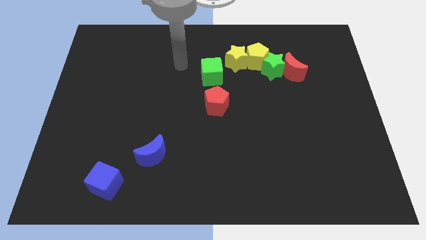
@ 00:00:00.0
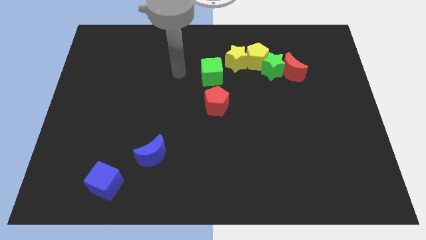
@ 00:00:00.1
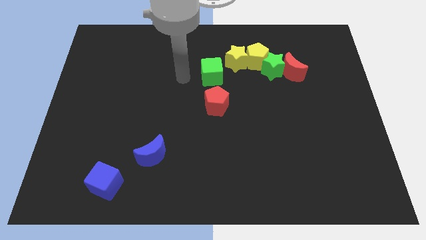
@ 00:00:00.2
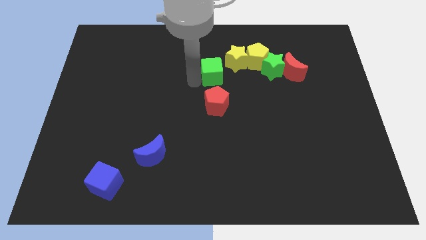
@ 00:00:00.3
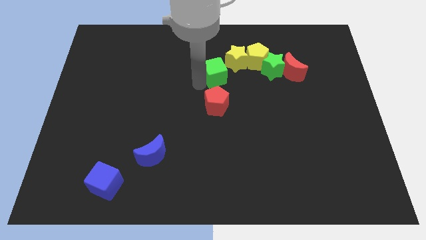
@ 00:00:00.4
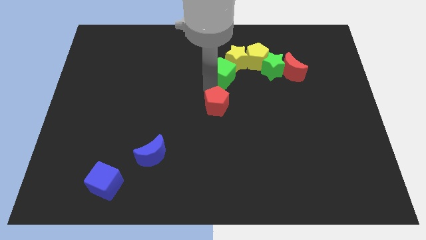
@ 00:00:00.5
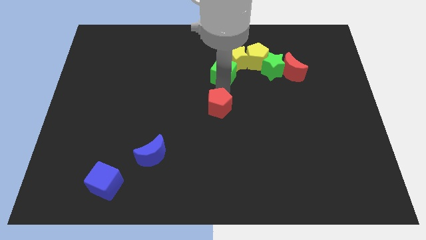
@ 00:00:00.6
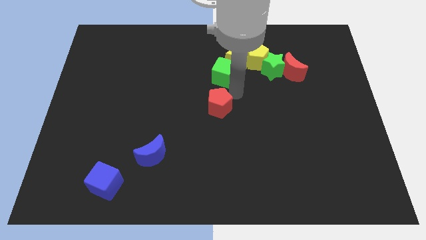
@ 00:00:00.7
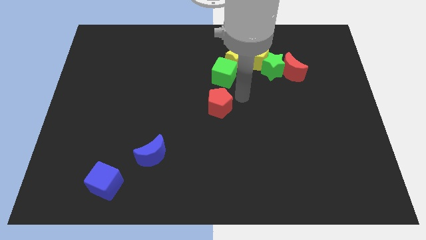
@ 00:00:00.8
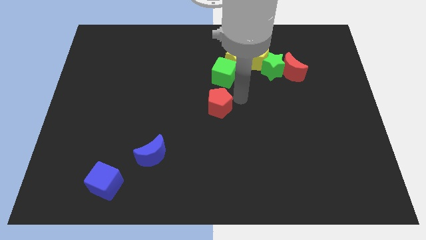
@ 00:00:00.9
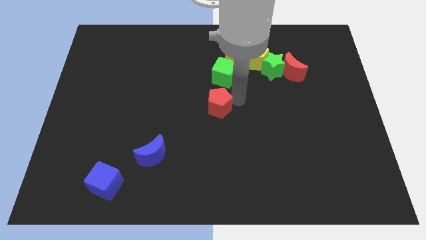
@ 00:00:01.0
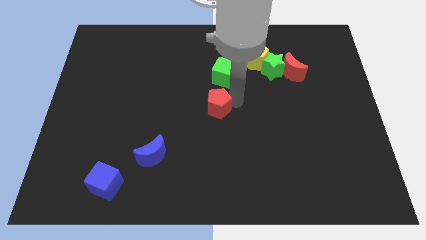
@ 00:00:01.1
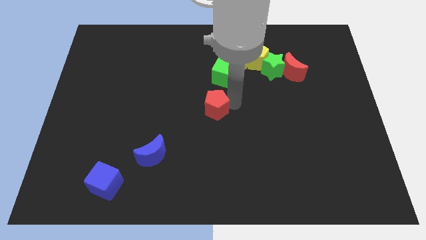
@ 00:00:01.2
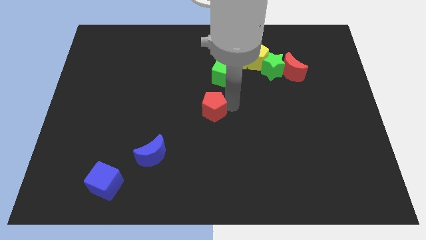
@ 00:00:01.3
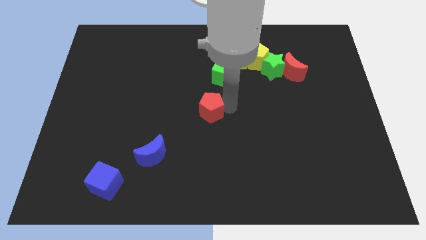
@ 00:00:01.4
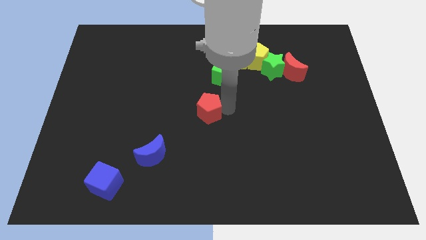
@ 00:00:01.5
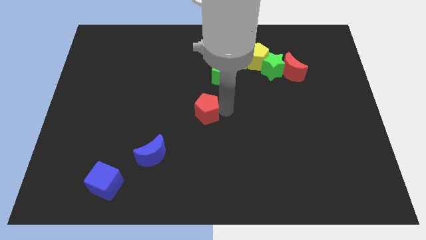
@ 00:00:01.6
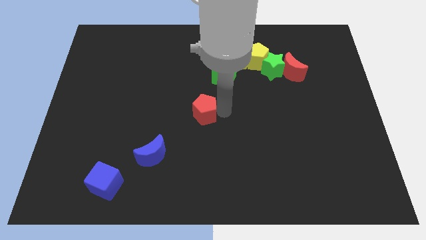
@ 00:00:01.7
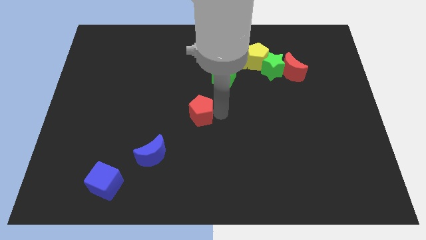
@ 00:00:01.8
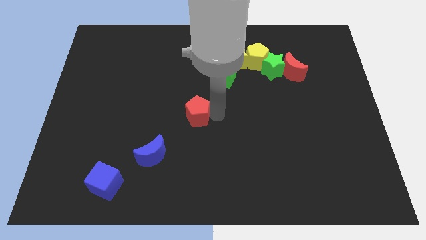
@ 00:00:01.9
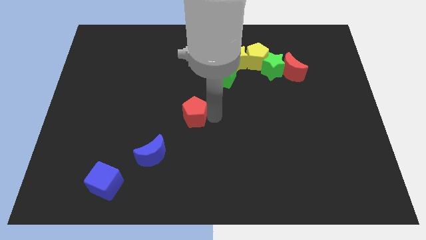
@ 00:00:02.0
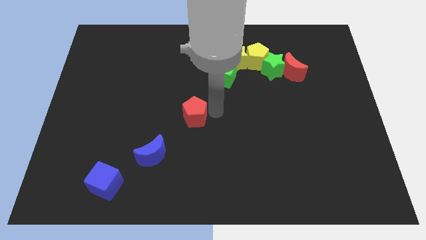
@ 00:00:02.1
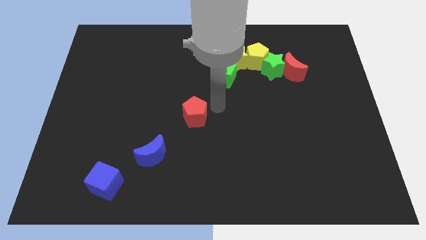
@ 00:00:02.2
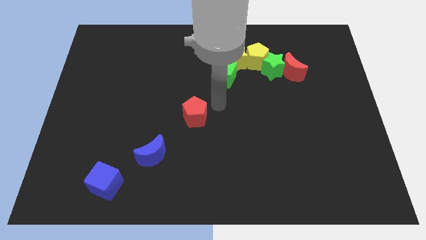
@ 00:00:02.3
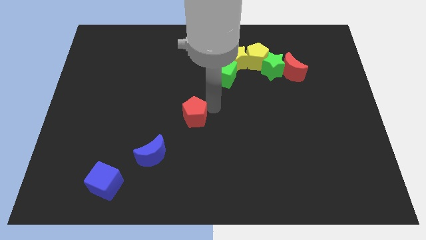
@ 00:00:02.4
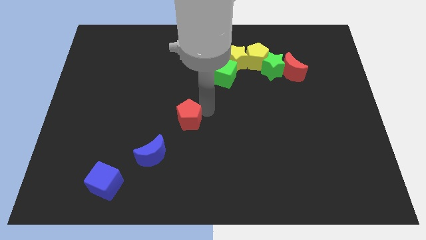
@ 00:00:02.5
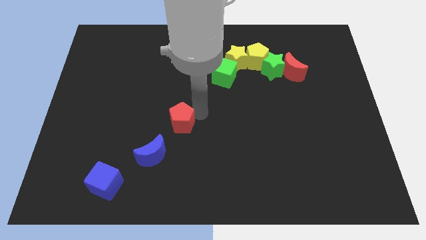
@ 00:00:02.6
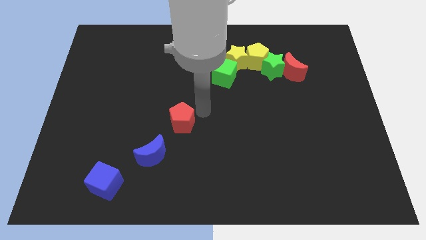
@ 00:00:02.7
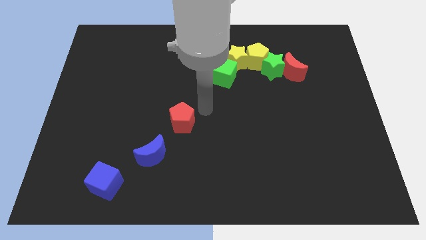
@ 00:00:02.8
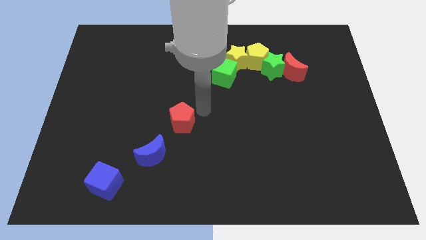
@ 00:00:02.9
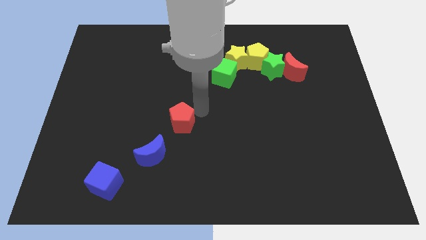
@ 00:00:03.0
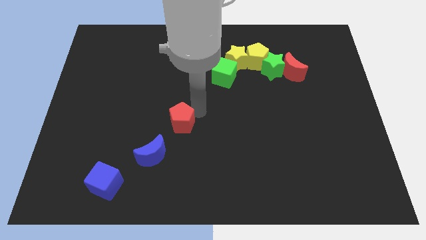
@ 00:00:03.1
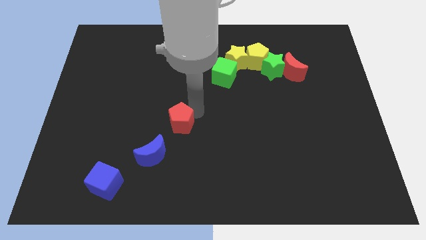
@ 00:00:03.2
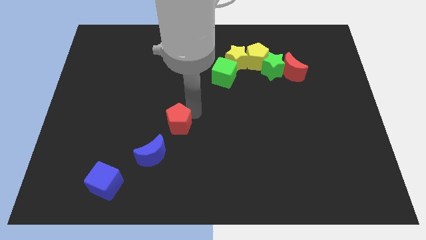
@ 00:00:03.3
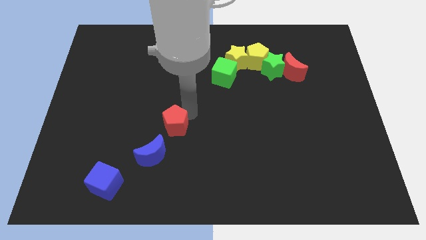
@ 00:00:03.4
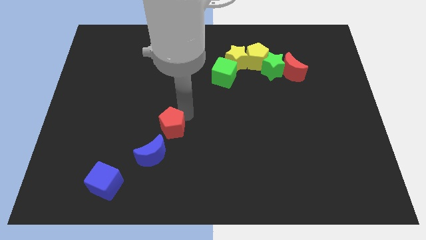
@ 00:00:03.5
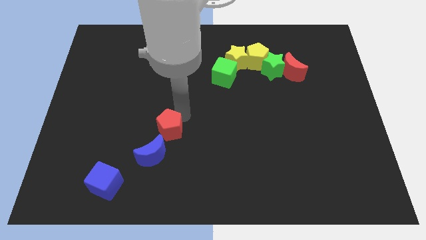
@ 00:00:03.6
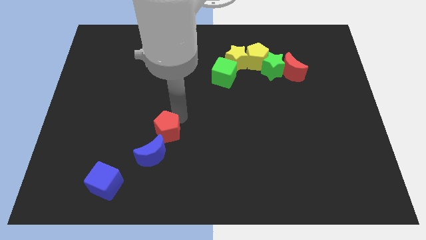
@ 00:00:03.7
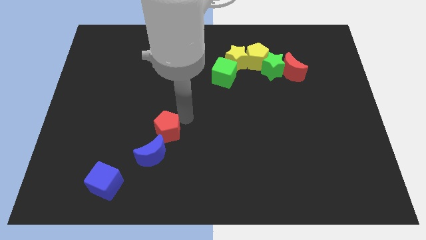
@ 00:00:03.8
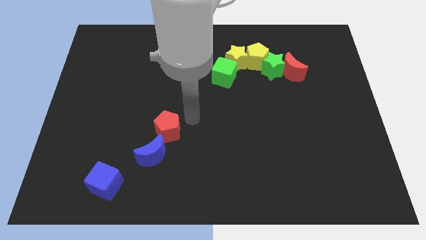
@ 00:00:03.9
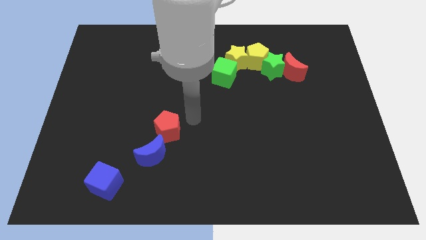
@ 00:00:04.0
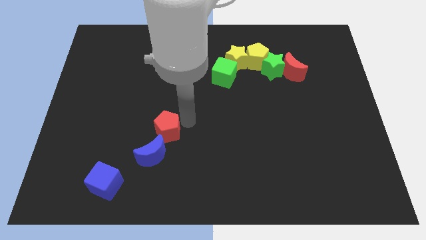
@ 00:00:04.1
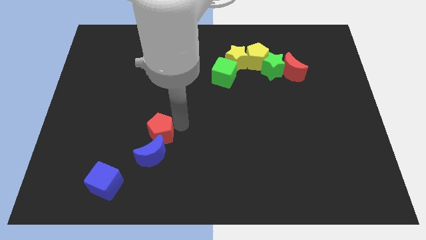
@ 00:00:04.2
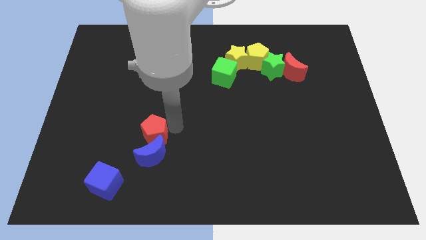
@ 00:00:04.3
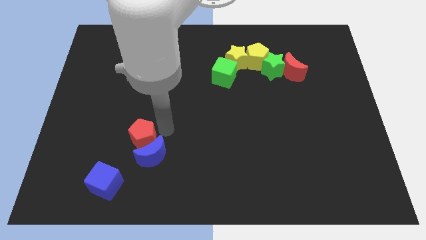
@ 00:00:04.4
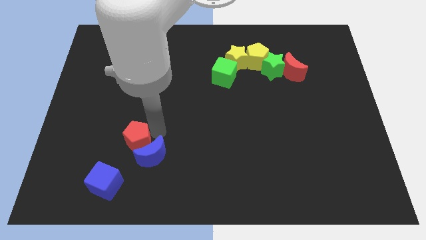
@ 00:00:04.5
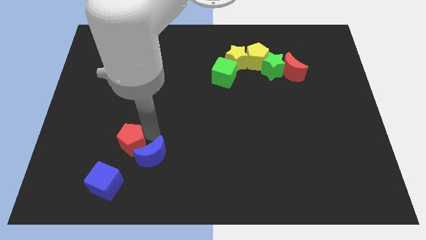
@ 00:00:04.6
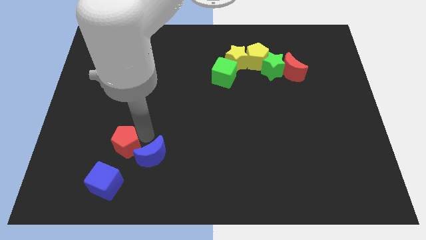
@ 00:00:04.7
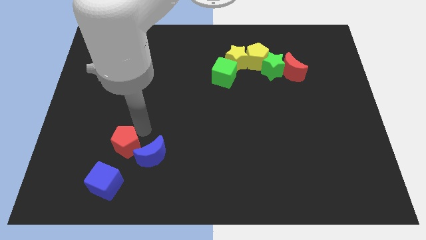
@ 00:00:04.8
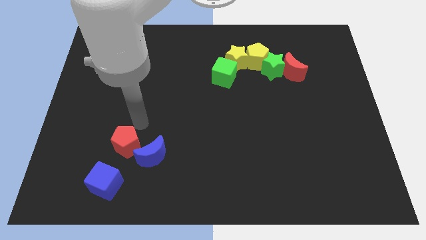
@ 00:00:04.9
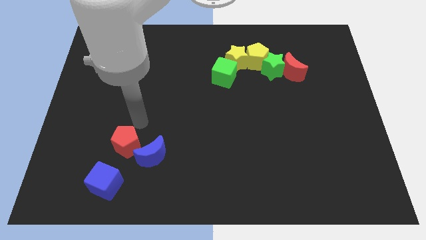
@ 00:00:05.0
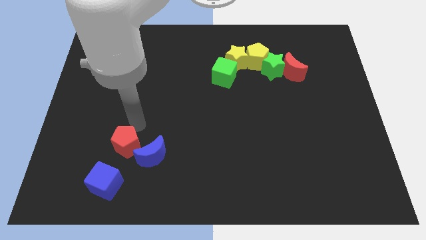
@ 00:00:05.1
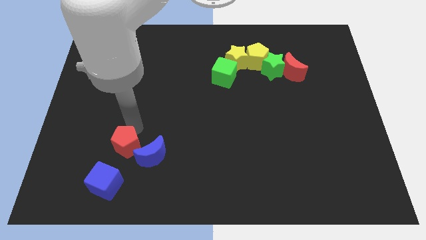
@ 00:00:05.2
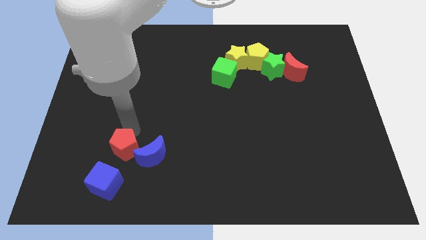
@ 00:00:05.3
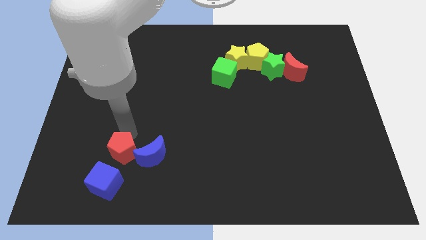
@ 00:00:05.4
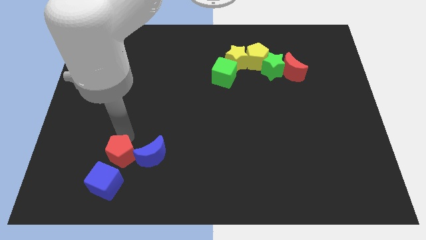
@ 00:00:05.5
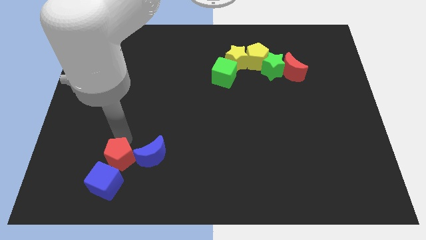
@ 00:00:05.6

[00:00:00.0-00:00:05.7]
put the red pentagon close to the blue cube

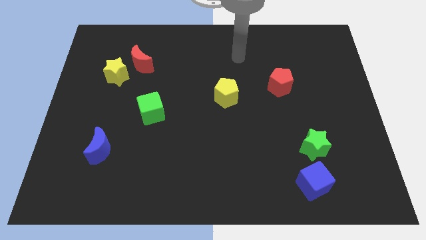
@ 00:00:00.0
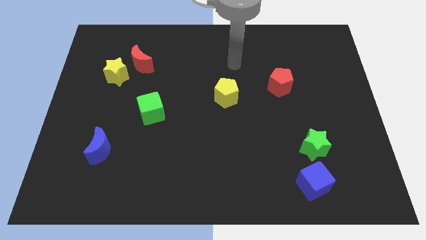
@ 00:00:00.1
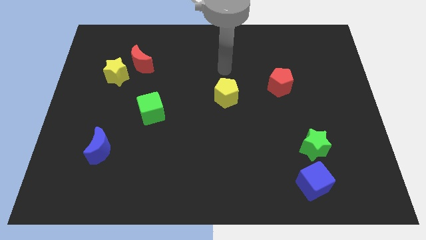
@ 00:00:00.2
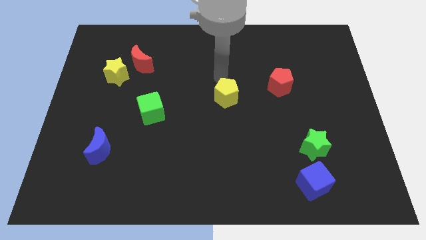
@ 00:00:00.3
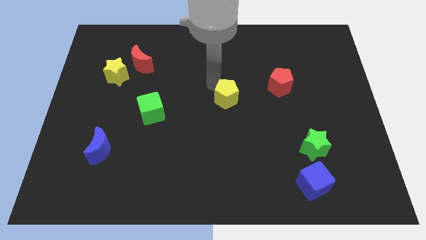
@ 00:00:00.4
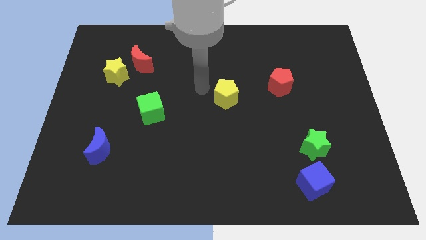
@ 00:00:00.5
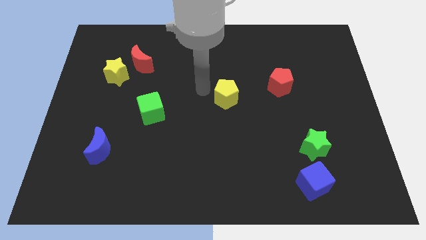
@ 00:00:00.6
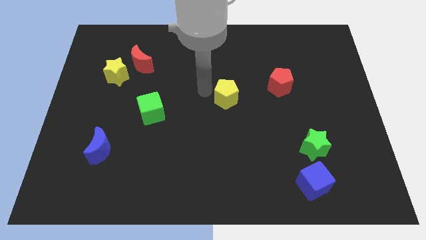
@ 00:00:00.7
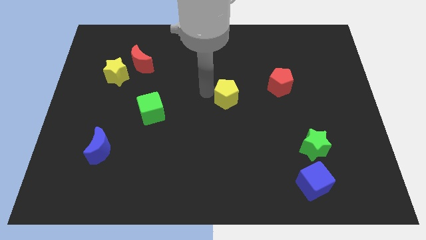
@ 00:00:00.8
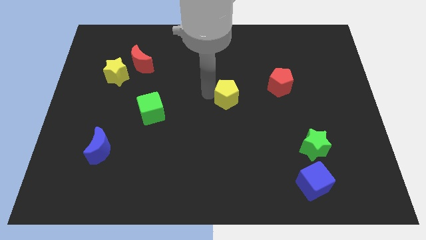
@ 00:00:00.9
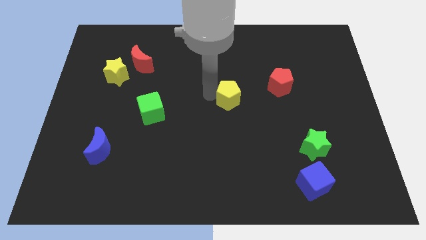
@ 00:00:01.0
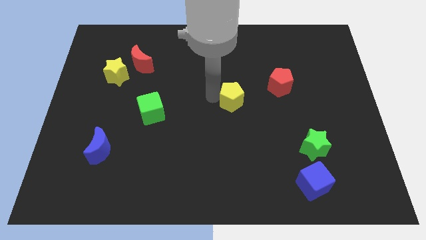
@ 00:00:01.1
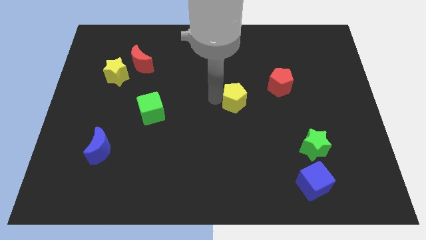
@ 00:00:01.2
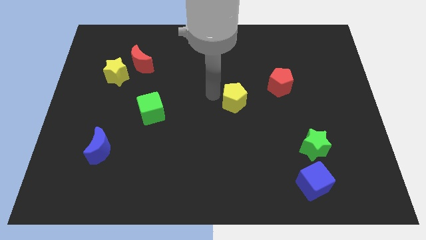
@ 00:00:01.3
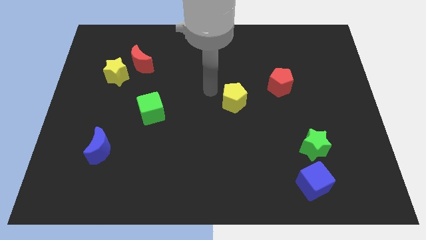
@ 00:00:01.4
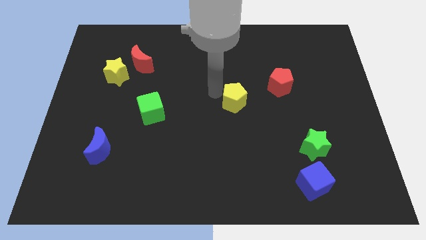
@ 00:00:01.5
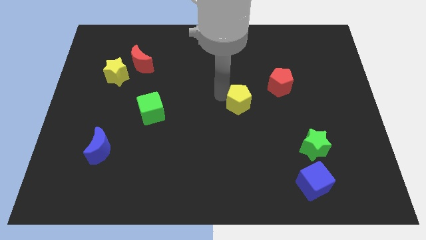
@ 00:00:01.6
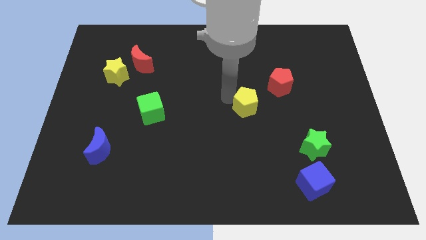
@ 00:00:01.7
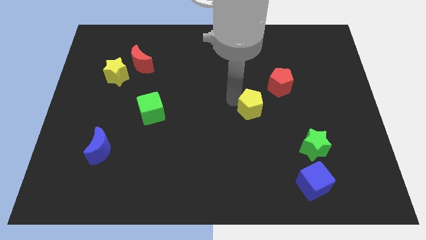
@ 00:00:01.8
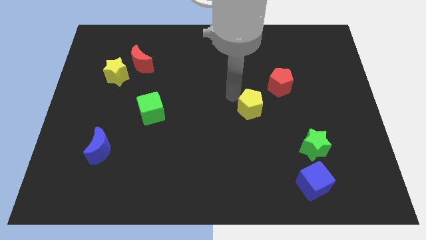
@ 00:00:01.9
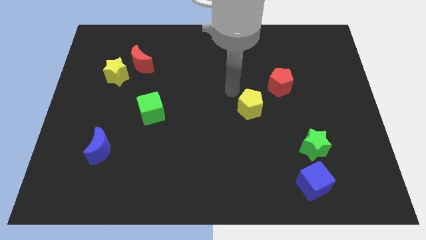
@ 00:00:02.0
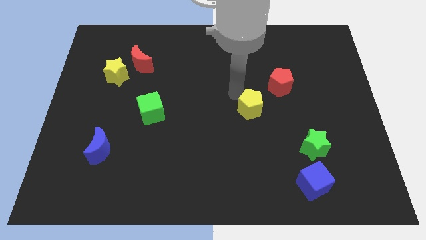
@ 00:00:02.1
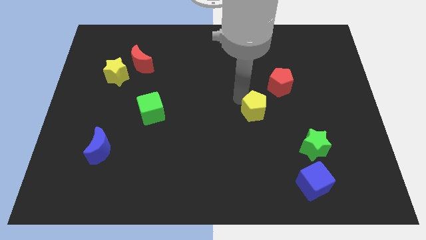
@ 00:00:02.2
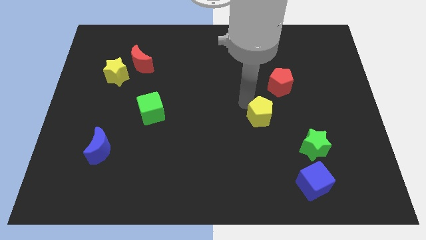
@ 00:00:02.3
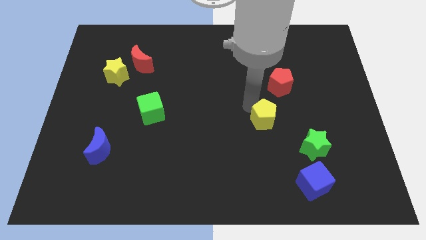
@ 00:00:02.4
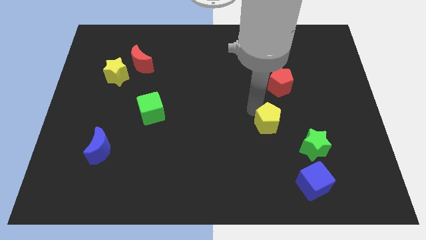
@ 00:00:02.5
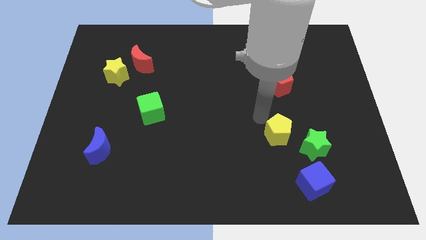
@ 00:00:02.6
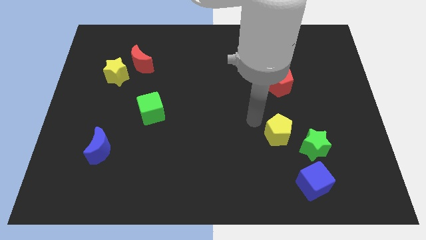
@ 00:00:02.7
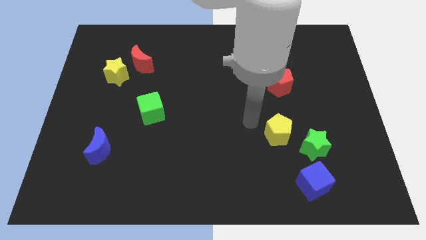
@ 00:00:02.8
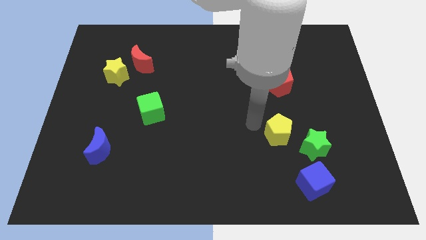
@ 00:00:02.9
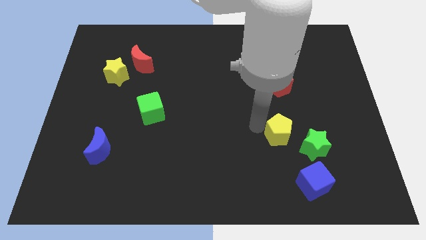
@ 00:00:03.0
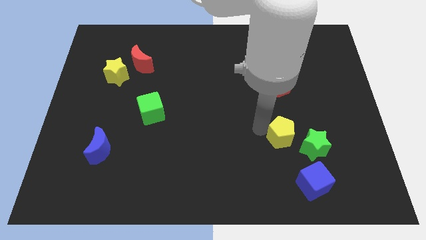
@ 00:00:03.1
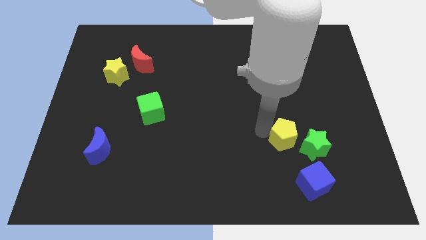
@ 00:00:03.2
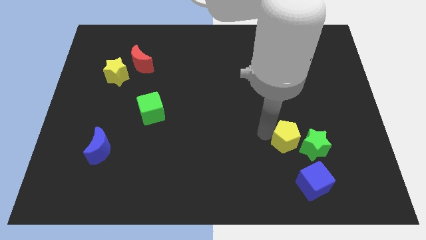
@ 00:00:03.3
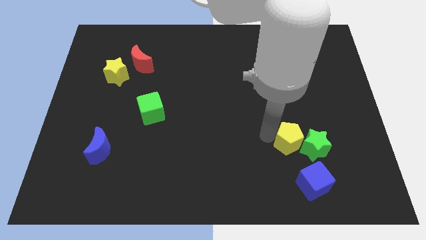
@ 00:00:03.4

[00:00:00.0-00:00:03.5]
move the yellow pentagon to the green star
